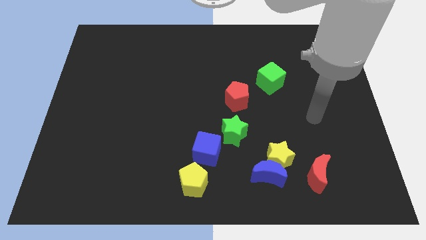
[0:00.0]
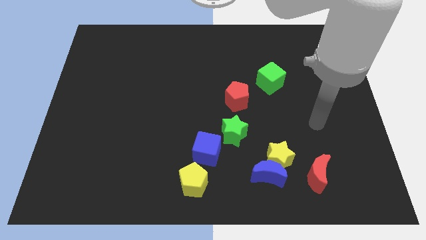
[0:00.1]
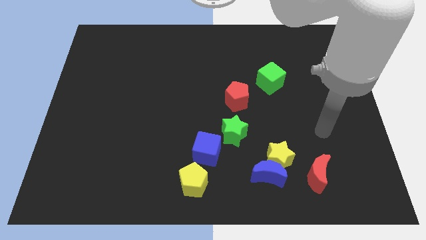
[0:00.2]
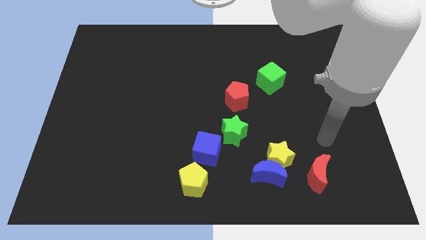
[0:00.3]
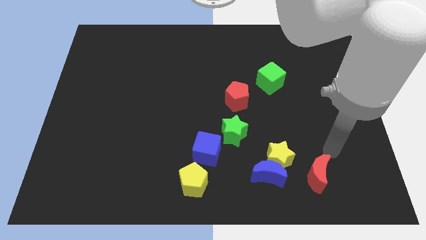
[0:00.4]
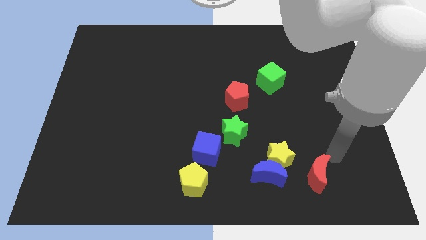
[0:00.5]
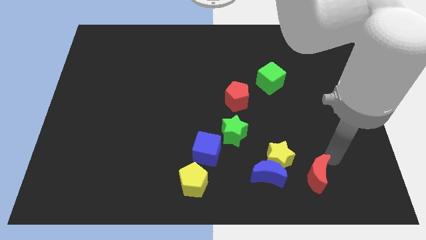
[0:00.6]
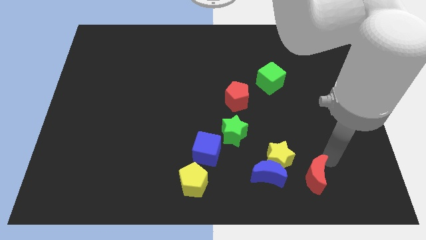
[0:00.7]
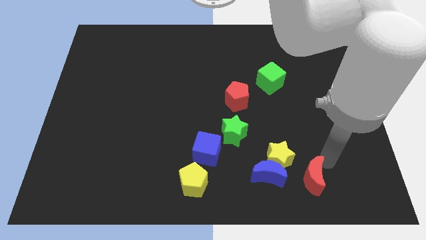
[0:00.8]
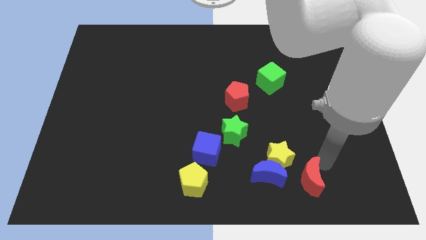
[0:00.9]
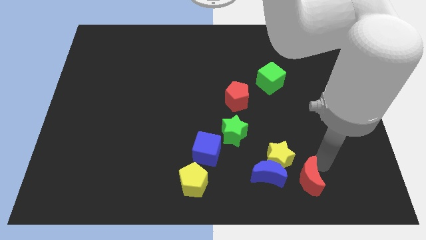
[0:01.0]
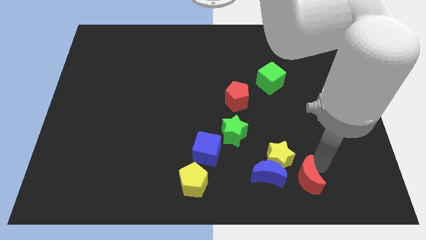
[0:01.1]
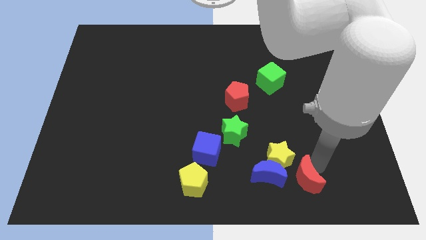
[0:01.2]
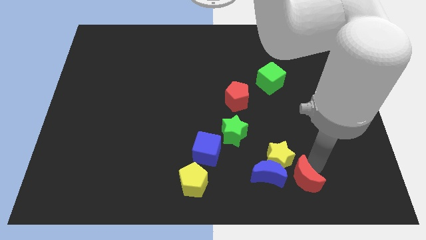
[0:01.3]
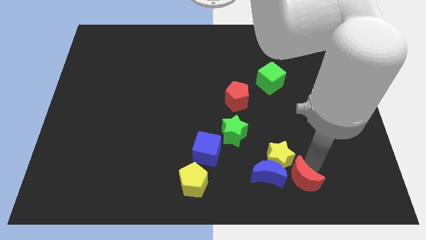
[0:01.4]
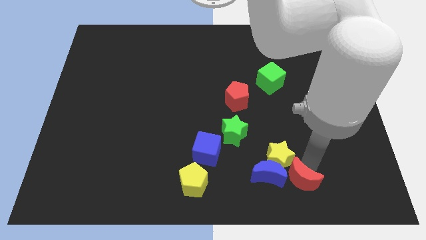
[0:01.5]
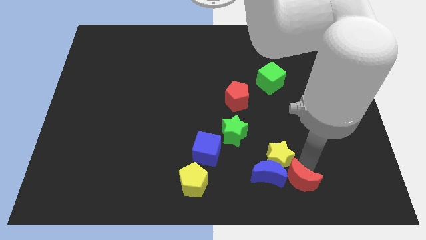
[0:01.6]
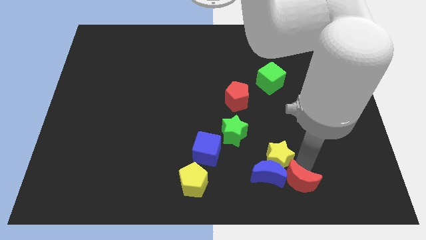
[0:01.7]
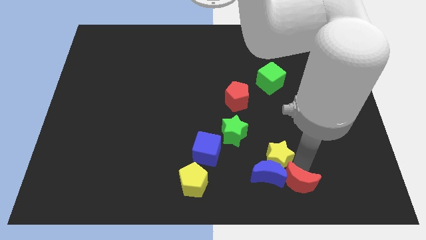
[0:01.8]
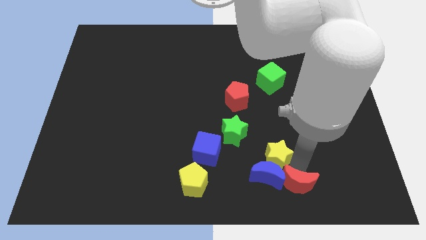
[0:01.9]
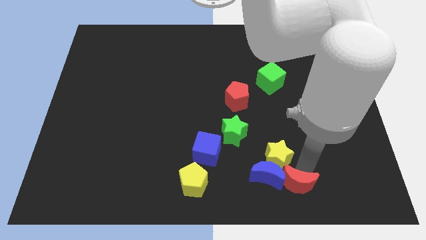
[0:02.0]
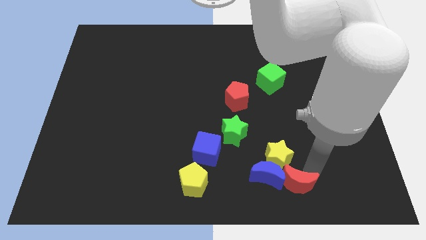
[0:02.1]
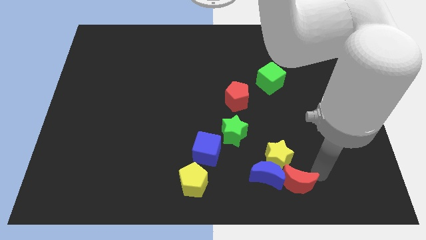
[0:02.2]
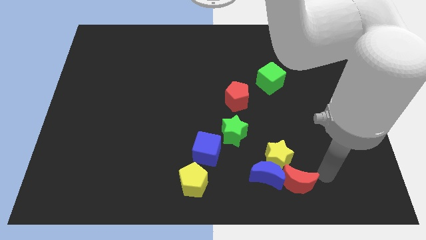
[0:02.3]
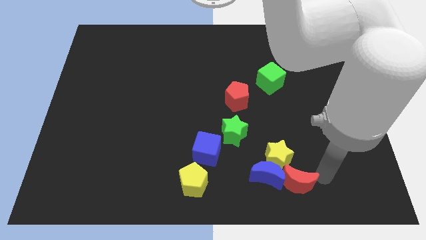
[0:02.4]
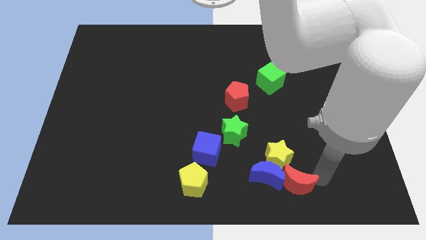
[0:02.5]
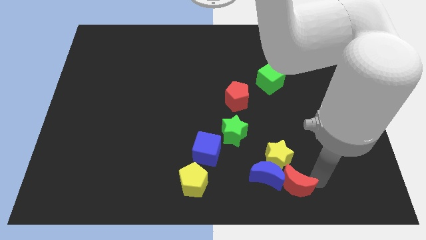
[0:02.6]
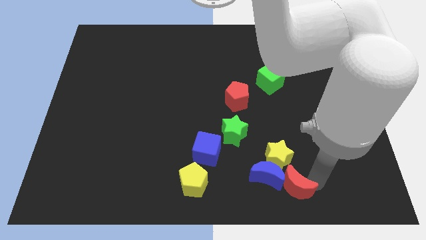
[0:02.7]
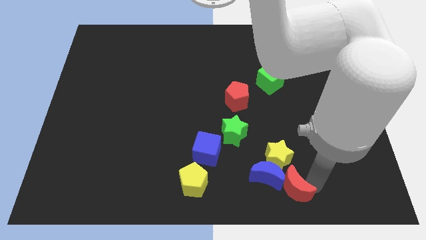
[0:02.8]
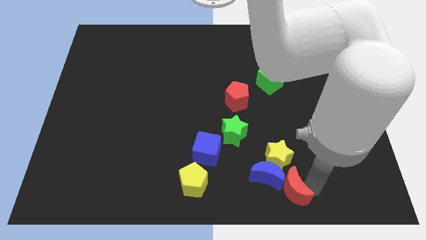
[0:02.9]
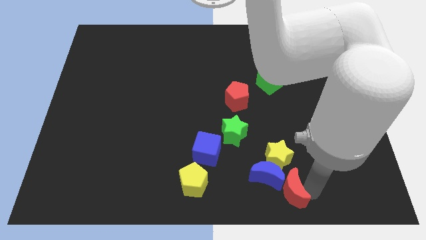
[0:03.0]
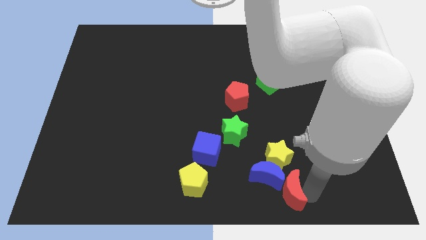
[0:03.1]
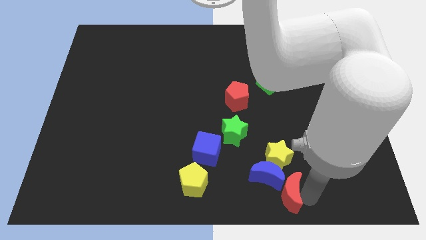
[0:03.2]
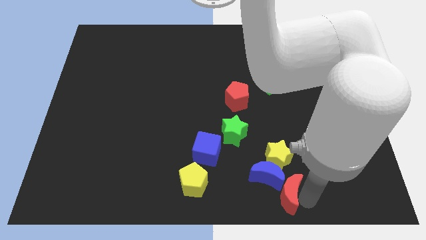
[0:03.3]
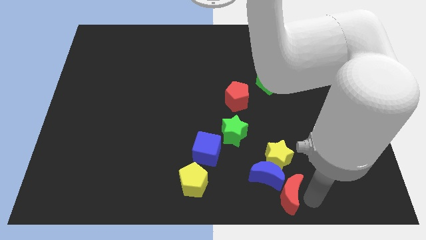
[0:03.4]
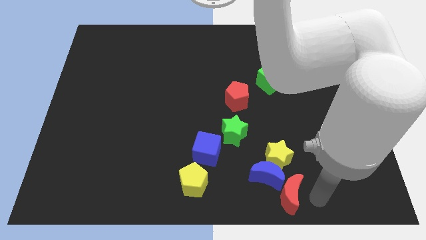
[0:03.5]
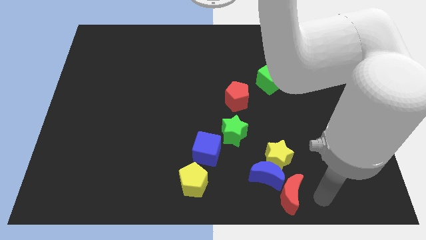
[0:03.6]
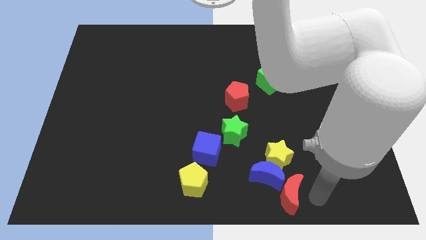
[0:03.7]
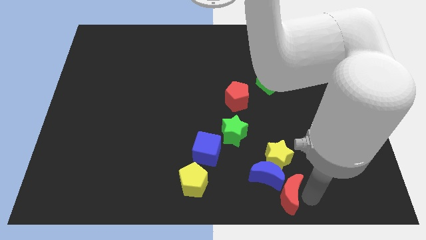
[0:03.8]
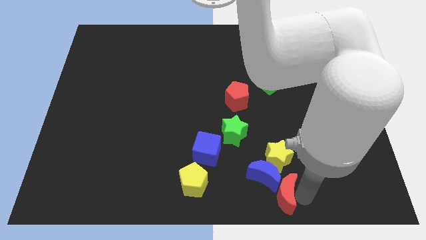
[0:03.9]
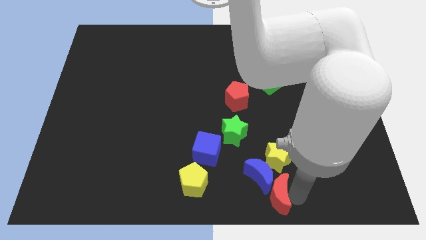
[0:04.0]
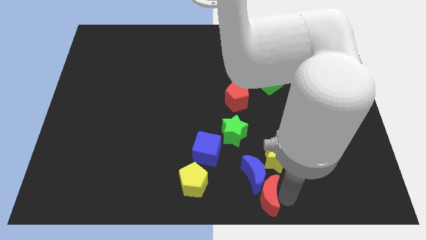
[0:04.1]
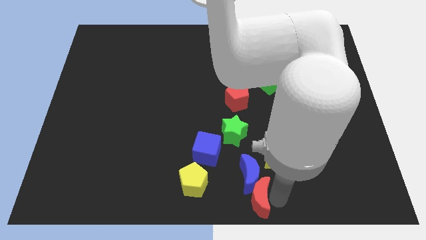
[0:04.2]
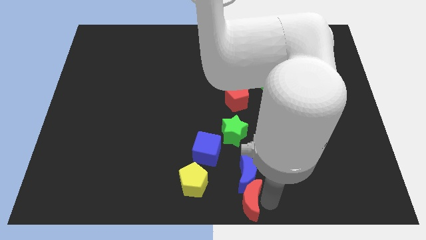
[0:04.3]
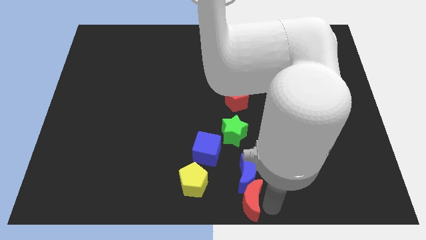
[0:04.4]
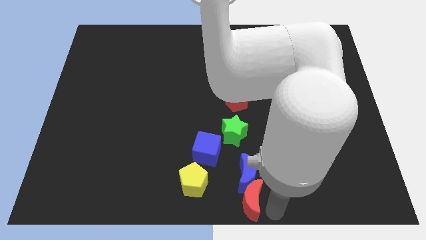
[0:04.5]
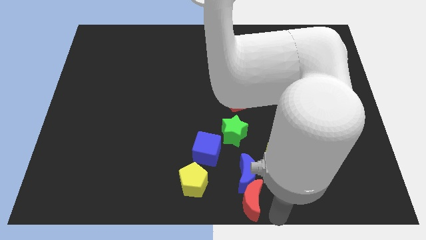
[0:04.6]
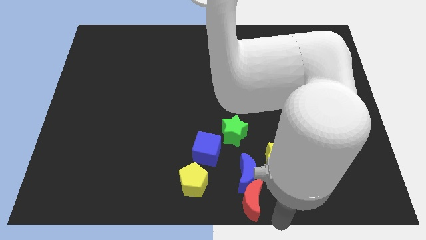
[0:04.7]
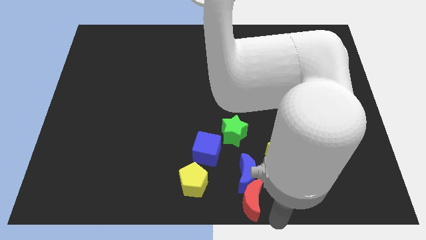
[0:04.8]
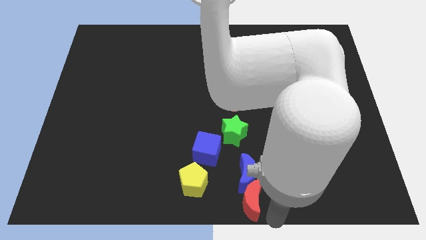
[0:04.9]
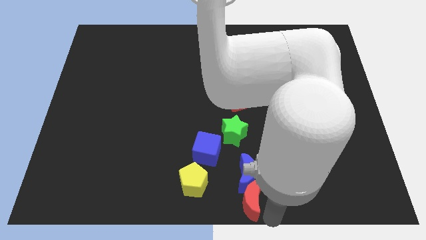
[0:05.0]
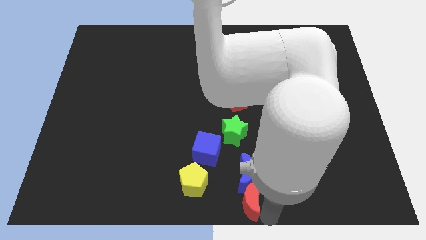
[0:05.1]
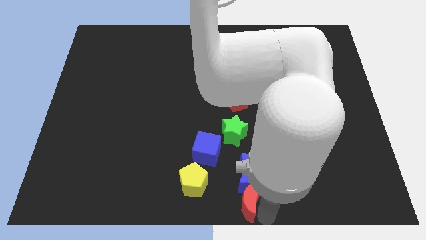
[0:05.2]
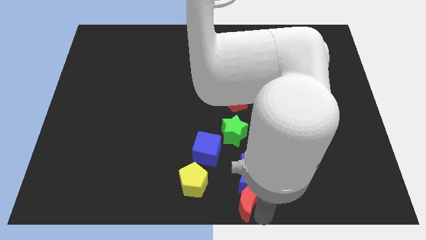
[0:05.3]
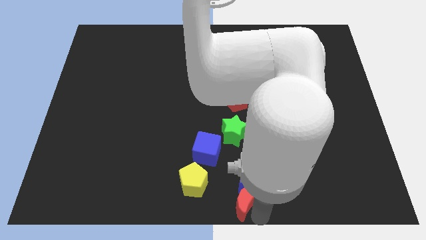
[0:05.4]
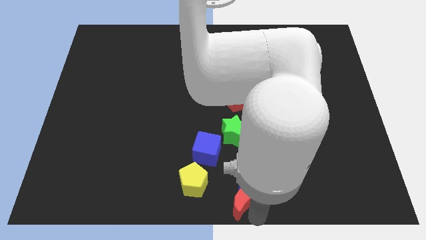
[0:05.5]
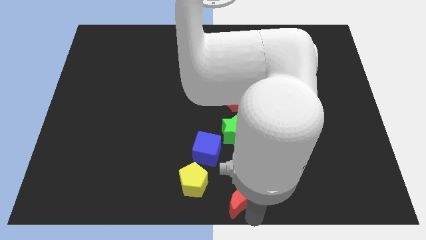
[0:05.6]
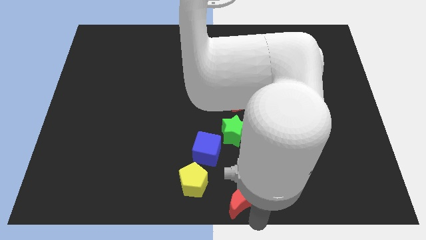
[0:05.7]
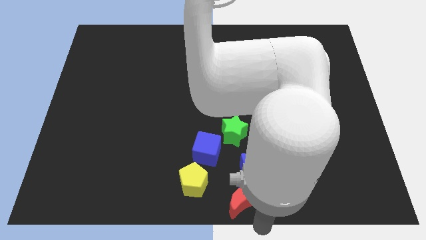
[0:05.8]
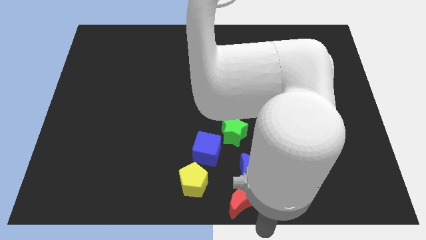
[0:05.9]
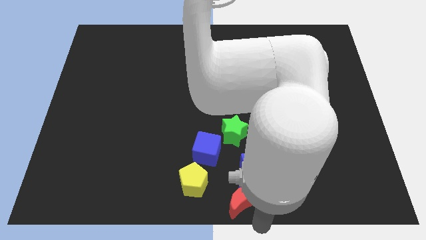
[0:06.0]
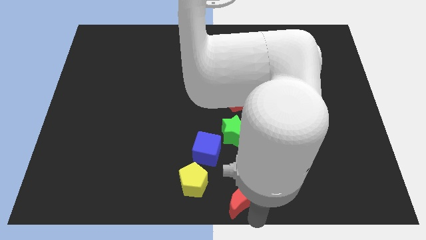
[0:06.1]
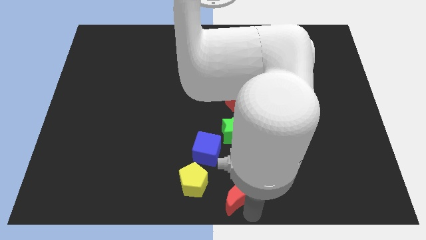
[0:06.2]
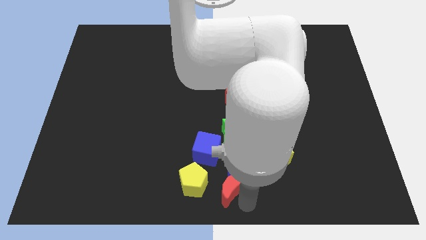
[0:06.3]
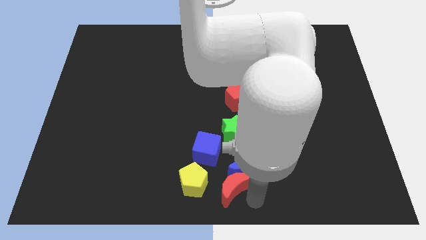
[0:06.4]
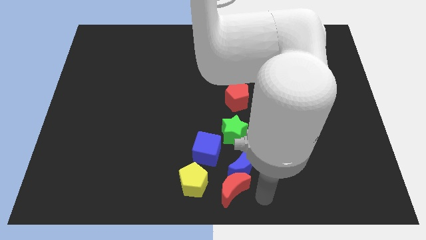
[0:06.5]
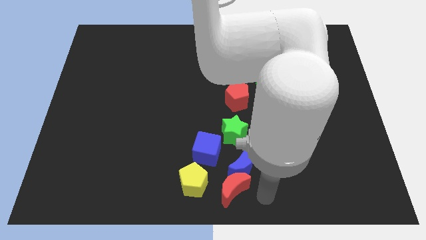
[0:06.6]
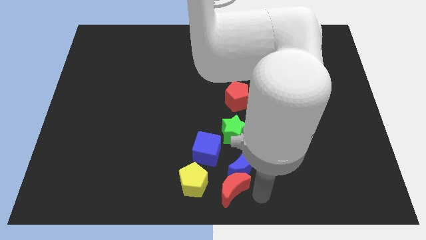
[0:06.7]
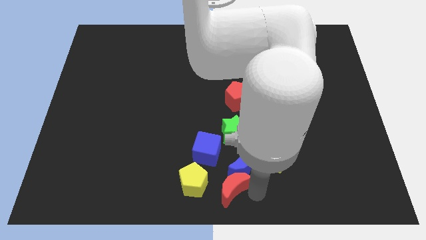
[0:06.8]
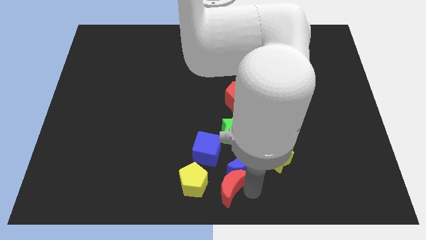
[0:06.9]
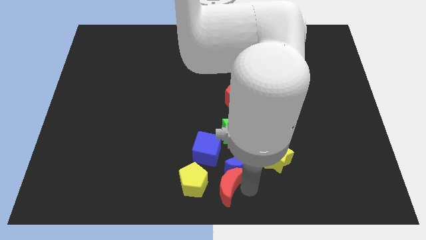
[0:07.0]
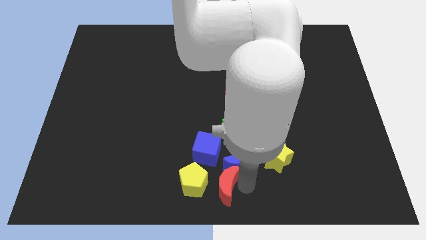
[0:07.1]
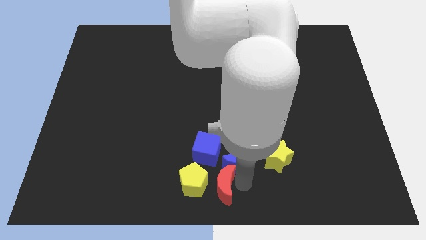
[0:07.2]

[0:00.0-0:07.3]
slide the red moon close to the yellow pentagon

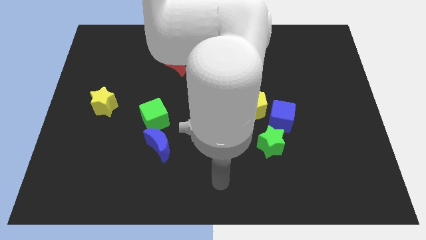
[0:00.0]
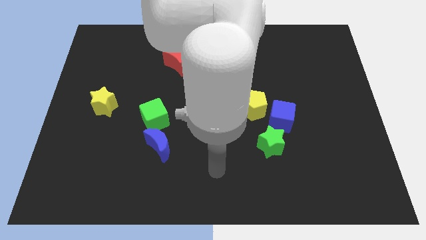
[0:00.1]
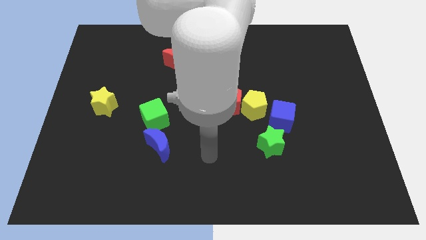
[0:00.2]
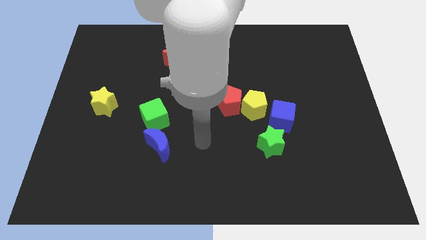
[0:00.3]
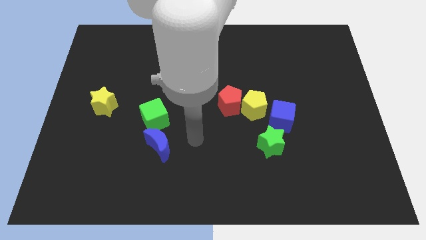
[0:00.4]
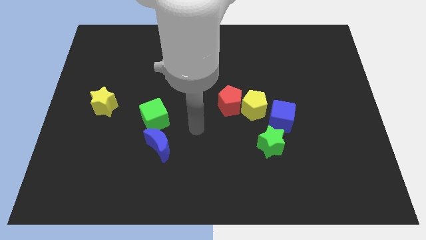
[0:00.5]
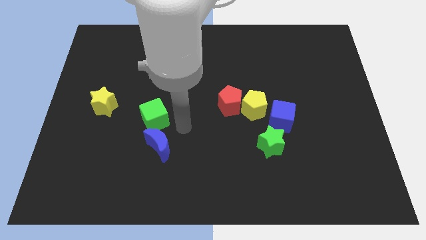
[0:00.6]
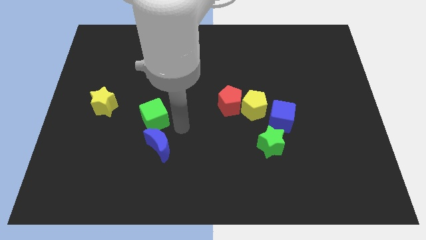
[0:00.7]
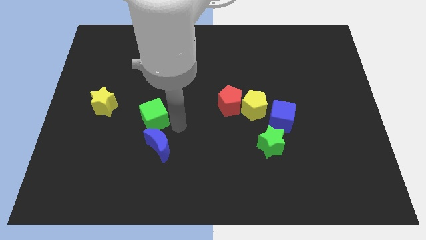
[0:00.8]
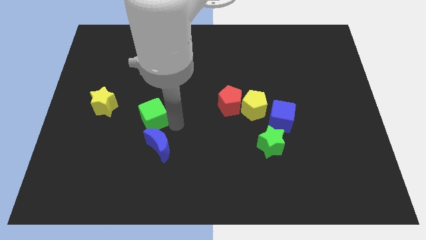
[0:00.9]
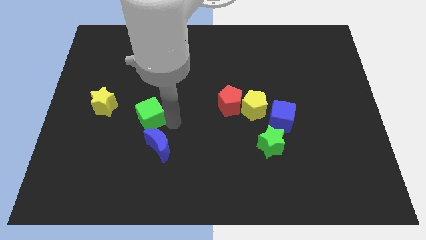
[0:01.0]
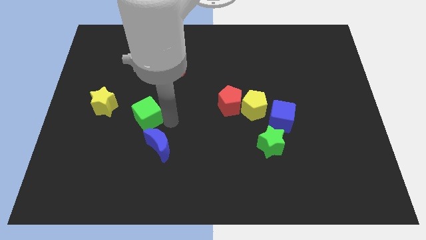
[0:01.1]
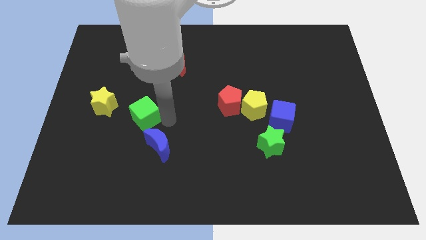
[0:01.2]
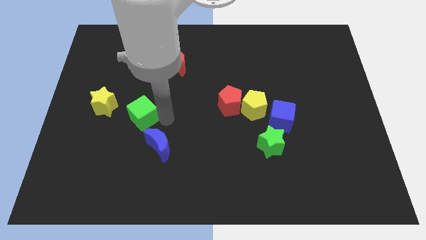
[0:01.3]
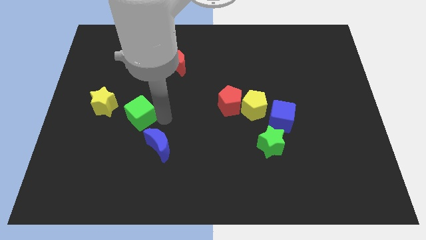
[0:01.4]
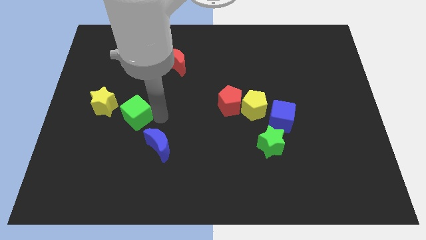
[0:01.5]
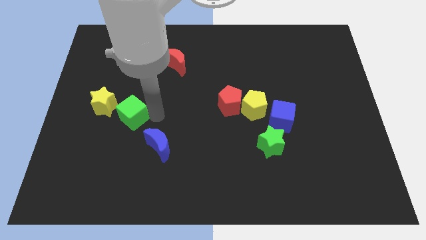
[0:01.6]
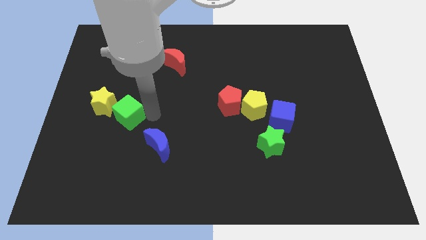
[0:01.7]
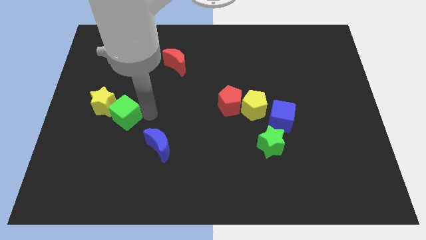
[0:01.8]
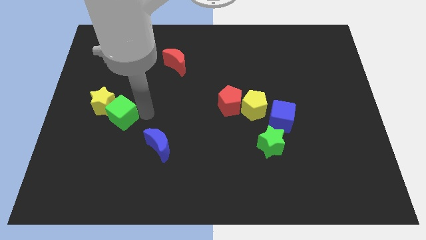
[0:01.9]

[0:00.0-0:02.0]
slide the green cube to the yellow star
